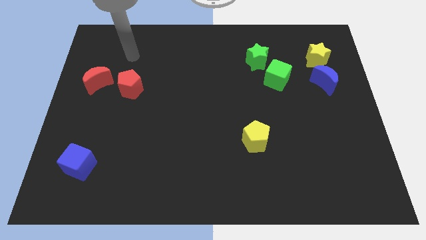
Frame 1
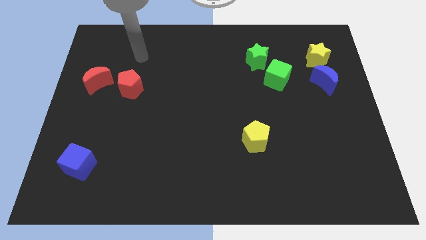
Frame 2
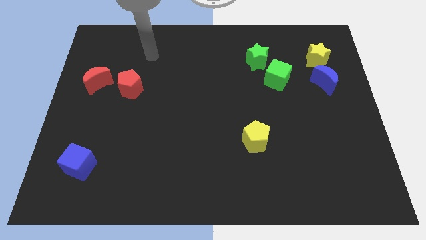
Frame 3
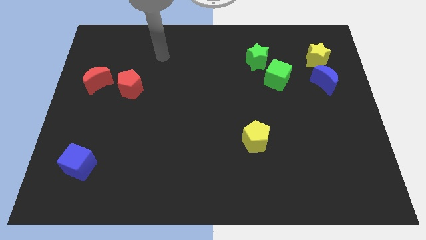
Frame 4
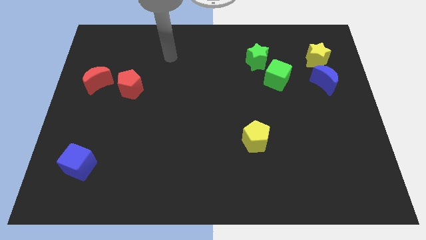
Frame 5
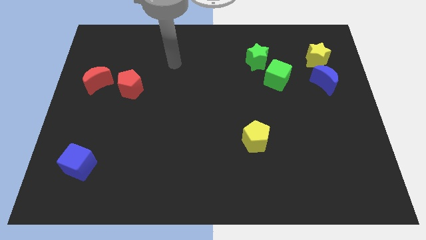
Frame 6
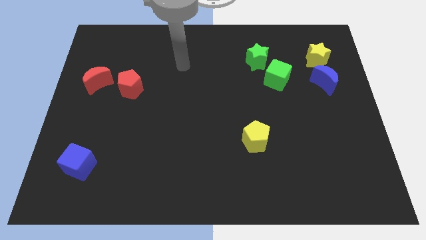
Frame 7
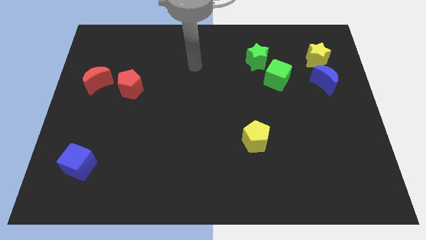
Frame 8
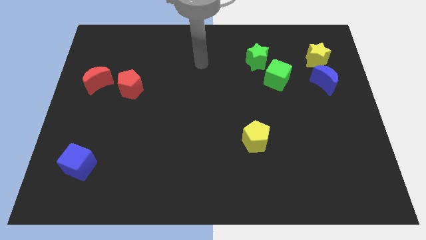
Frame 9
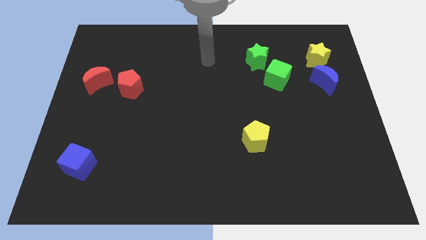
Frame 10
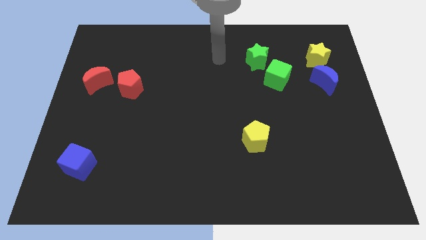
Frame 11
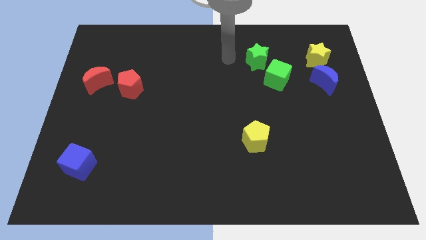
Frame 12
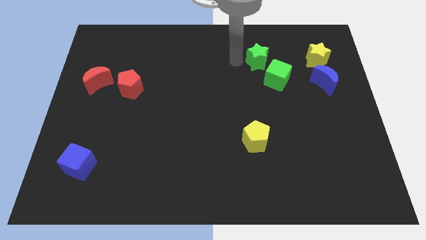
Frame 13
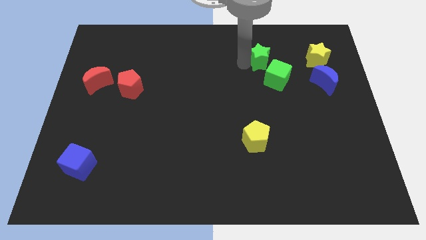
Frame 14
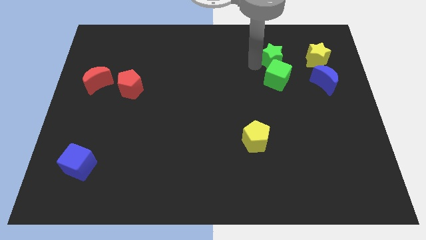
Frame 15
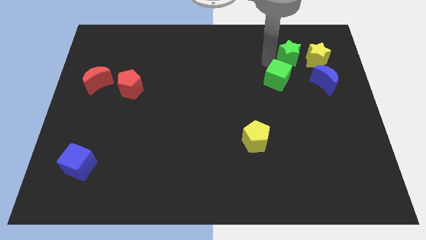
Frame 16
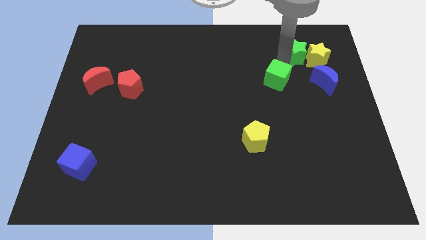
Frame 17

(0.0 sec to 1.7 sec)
separate the green cube from the green star

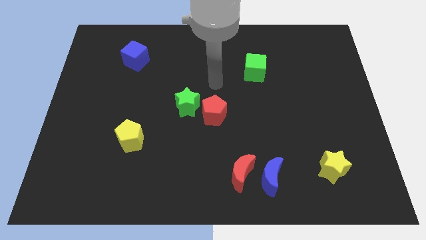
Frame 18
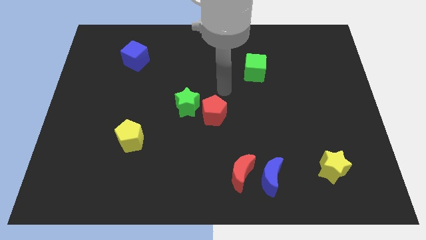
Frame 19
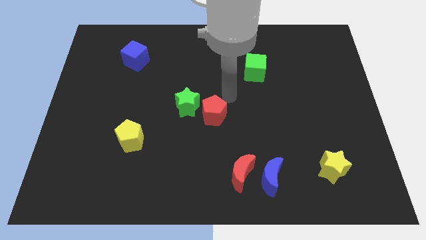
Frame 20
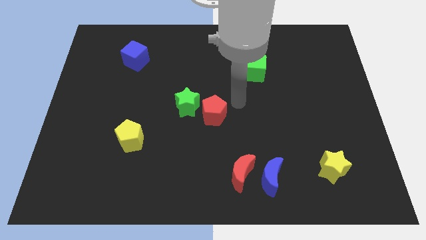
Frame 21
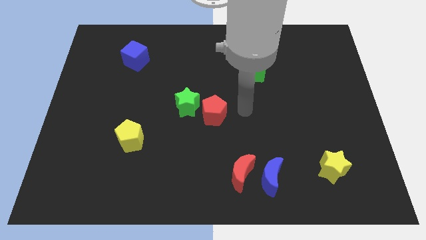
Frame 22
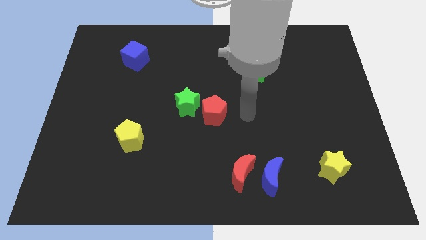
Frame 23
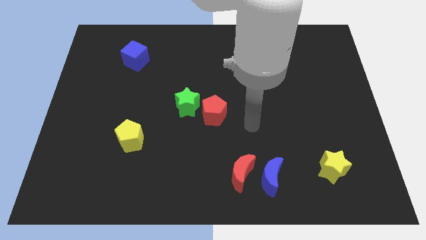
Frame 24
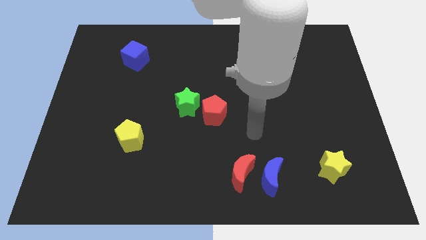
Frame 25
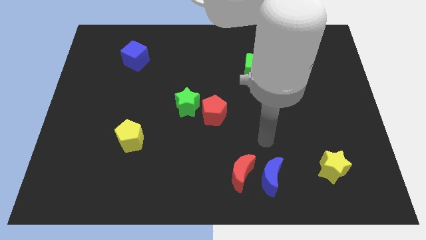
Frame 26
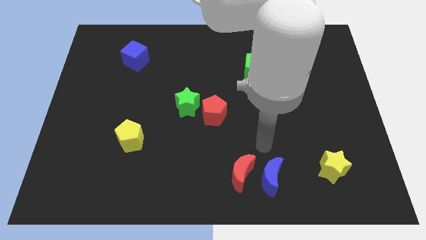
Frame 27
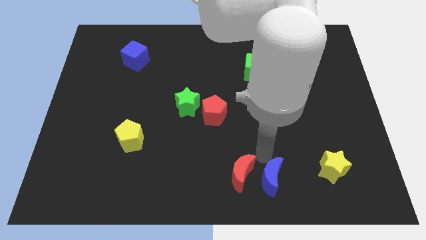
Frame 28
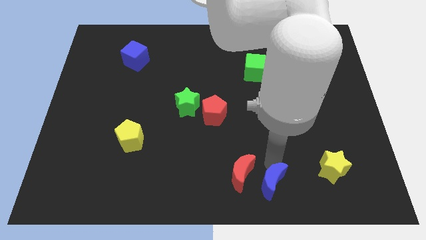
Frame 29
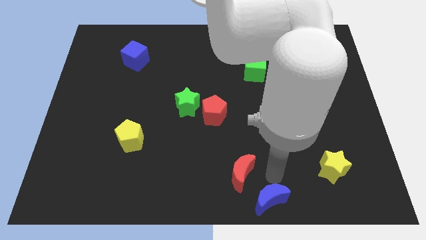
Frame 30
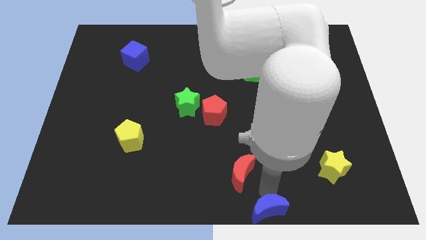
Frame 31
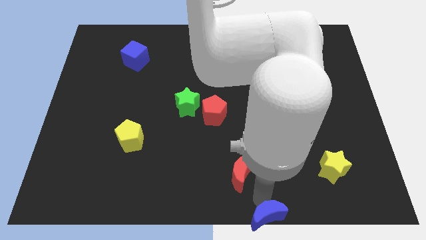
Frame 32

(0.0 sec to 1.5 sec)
move the red moon away from the blue moon

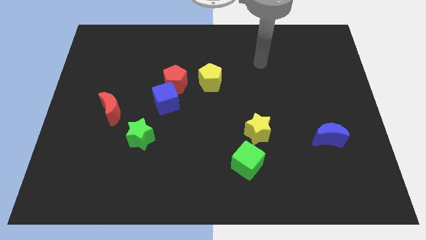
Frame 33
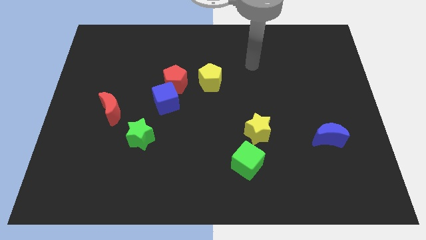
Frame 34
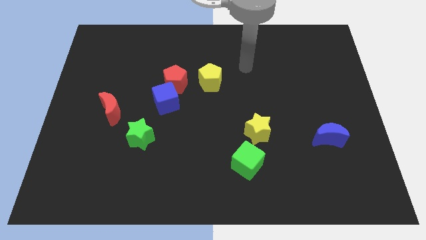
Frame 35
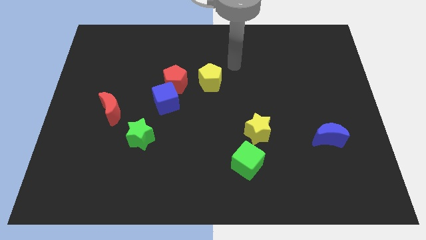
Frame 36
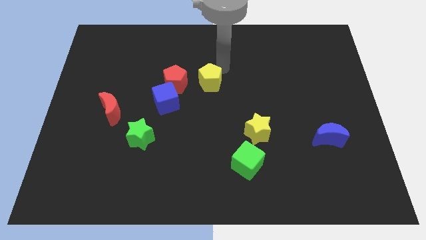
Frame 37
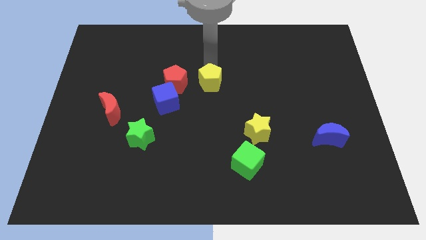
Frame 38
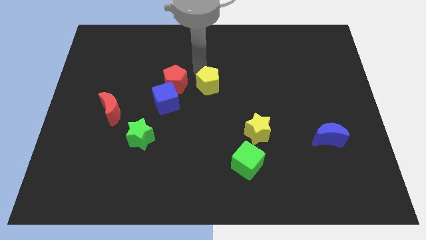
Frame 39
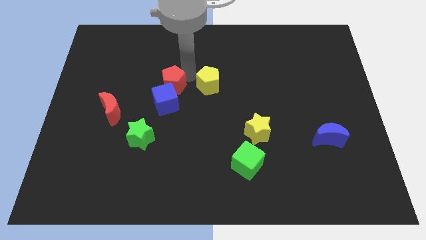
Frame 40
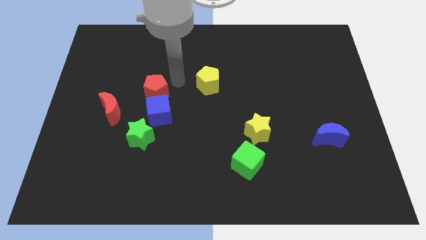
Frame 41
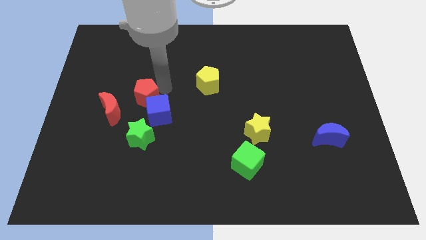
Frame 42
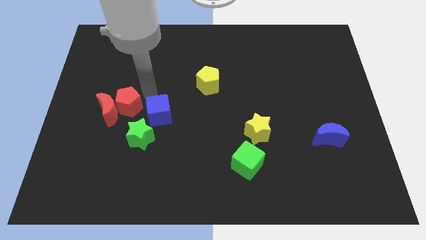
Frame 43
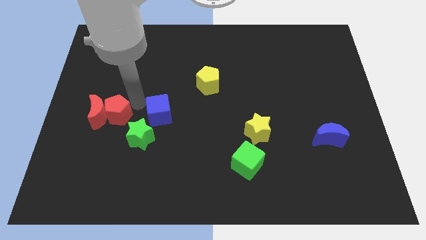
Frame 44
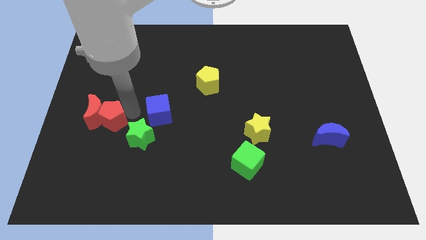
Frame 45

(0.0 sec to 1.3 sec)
pull the blue cube apart from the red pentagon

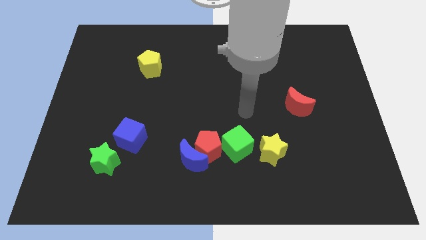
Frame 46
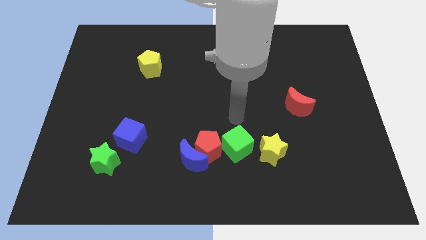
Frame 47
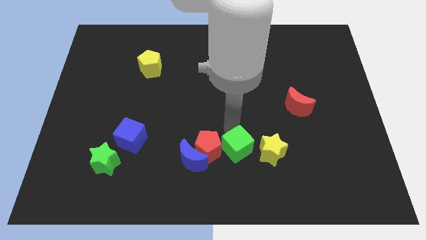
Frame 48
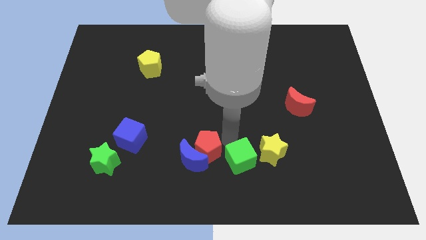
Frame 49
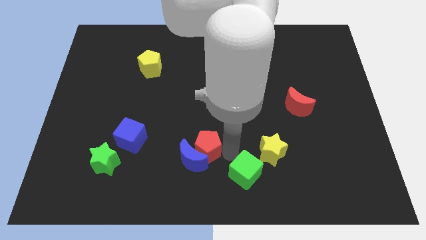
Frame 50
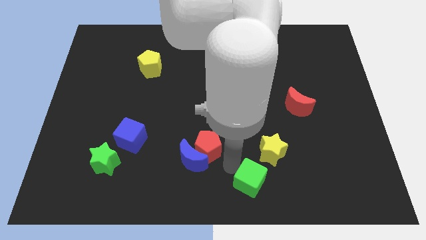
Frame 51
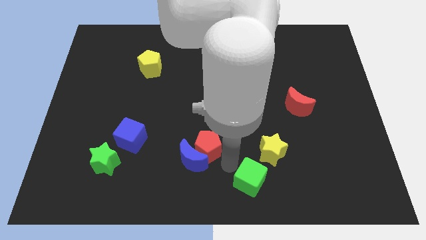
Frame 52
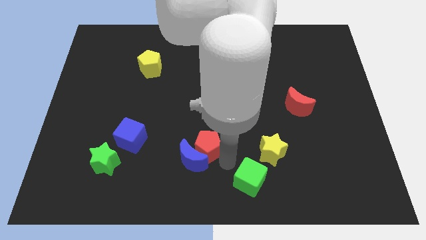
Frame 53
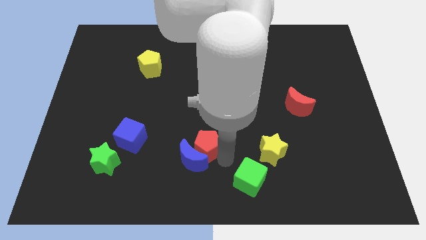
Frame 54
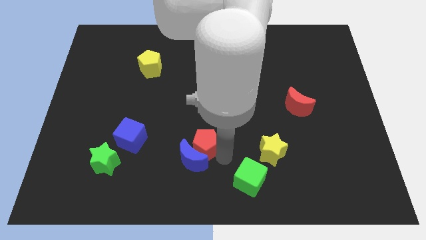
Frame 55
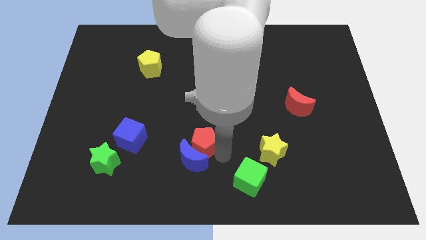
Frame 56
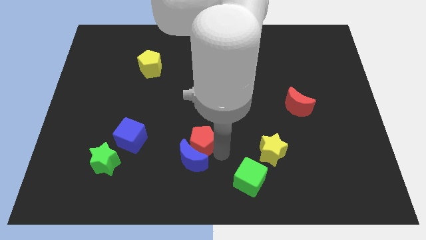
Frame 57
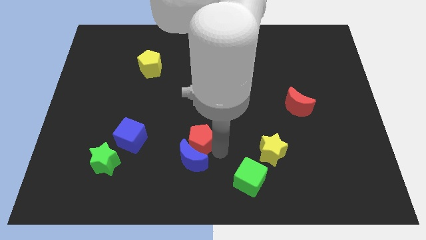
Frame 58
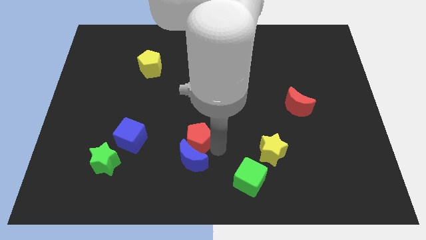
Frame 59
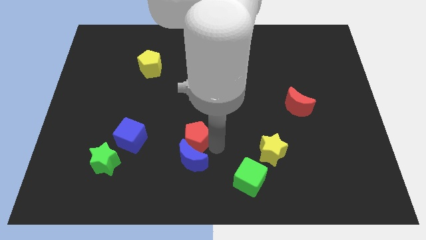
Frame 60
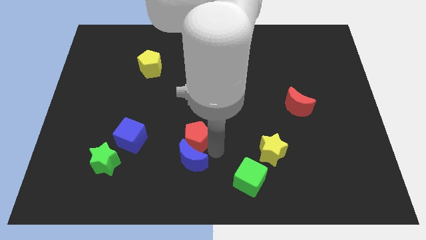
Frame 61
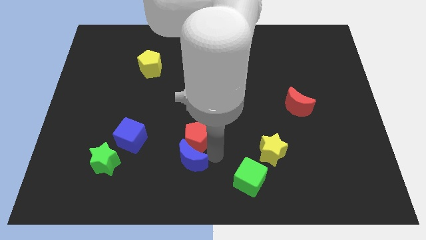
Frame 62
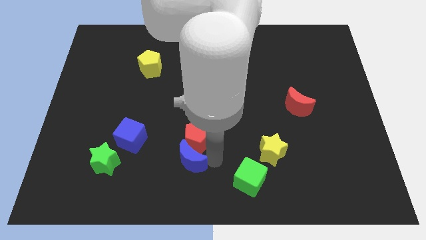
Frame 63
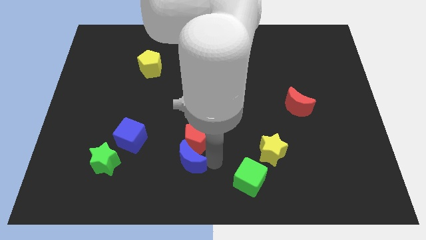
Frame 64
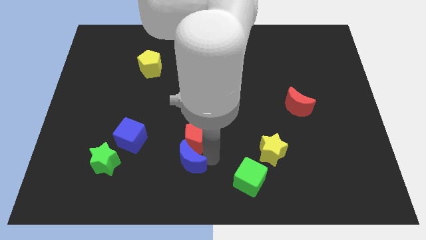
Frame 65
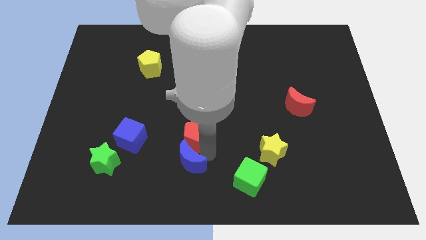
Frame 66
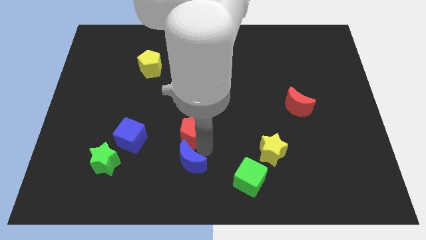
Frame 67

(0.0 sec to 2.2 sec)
pull the red pentagon apart from the blue moon and green cube

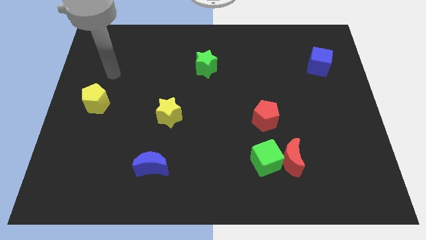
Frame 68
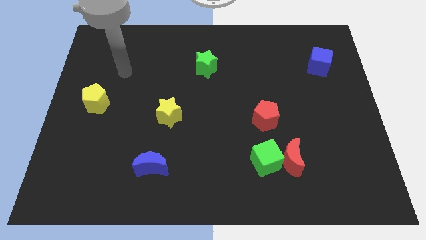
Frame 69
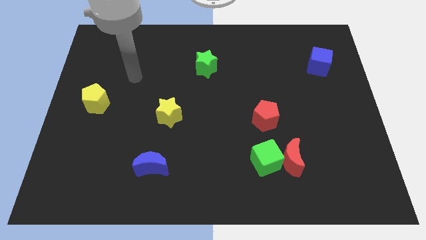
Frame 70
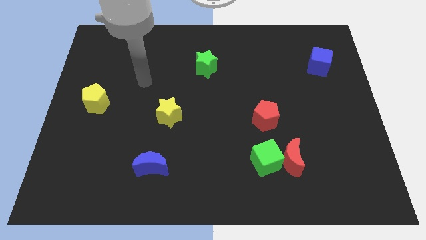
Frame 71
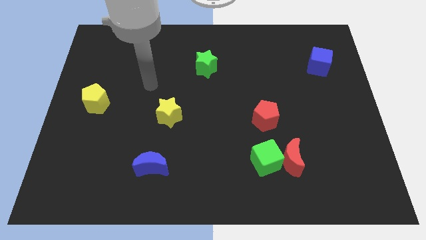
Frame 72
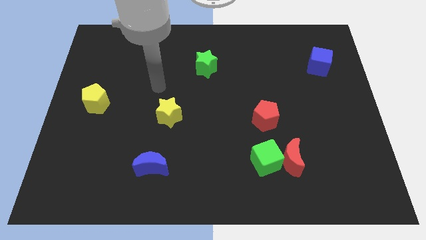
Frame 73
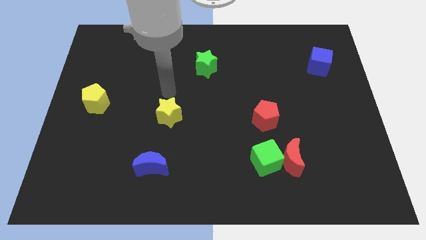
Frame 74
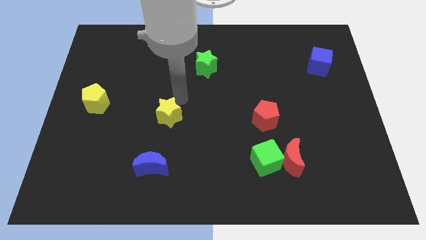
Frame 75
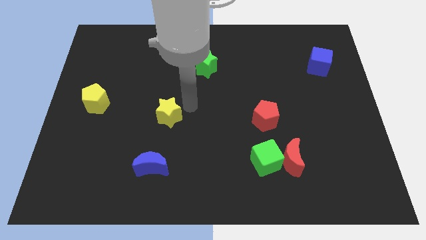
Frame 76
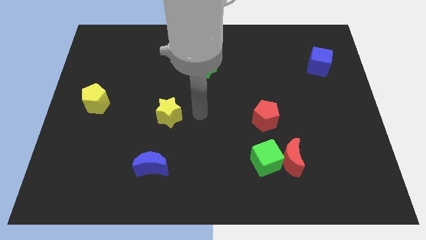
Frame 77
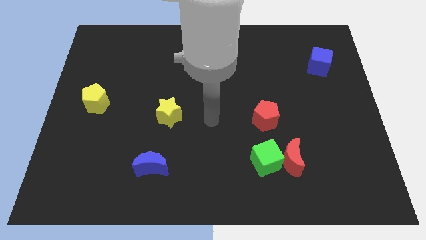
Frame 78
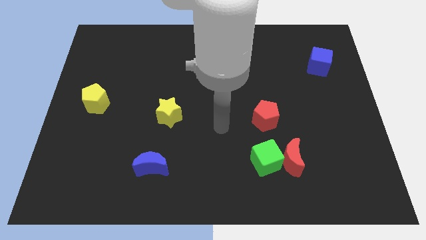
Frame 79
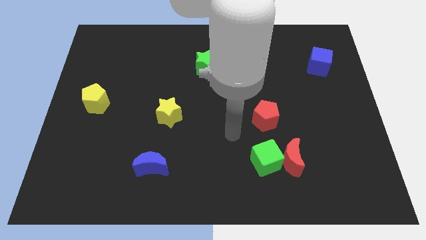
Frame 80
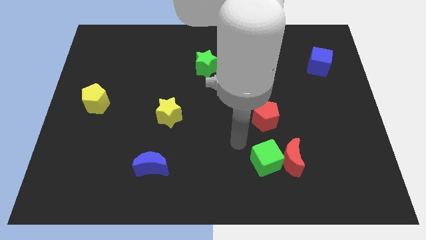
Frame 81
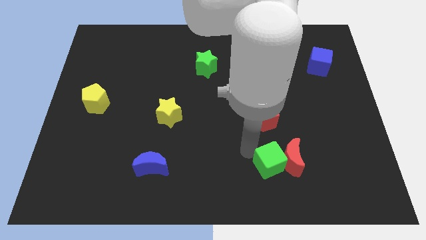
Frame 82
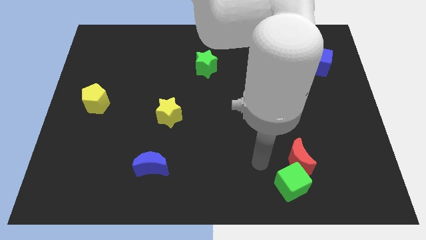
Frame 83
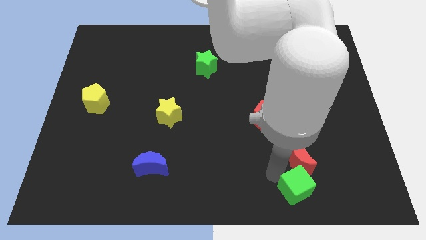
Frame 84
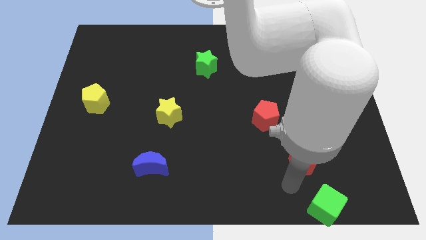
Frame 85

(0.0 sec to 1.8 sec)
move the red moon away from the green cube

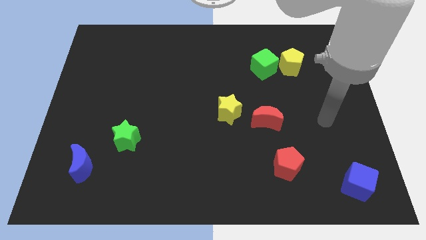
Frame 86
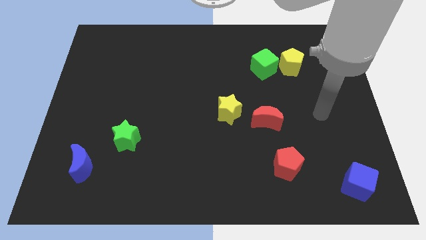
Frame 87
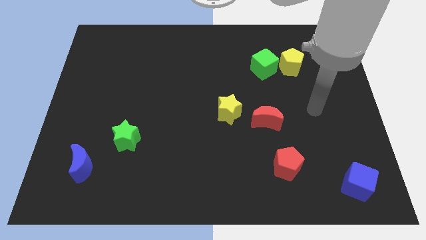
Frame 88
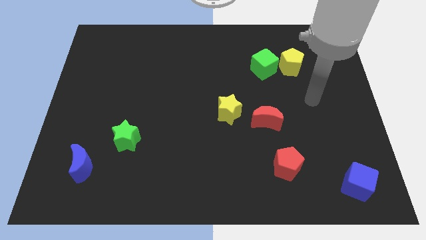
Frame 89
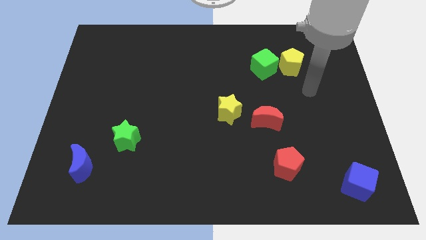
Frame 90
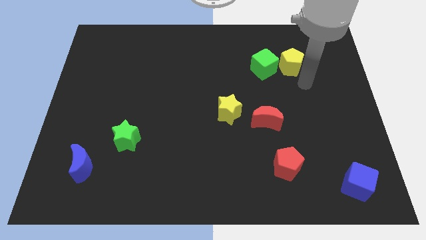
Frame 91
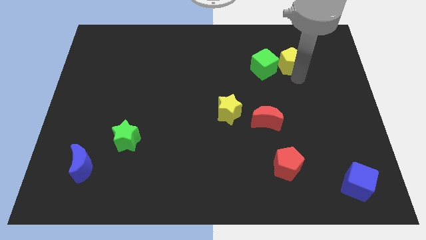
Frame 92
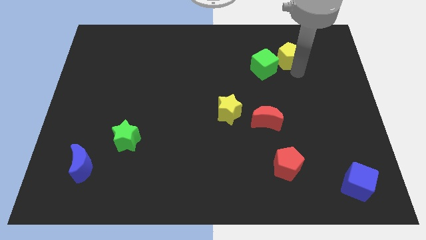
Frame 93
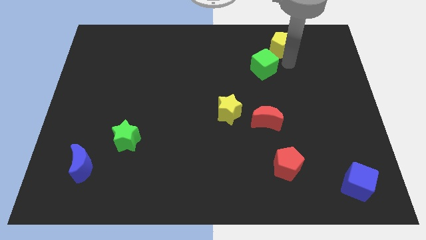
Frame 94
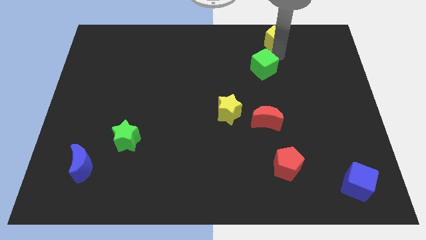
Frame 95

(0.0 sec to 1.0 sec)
separate the green cube from the yellow pentagon
